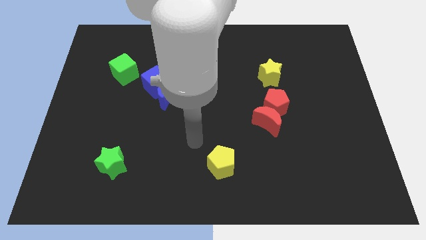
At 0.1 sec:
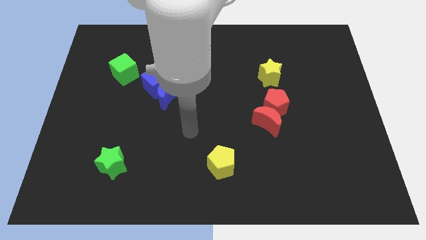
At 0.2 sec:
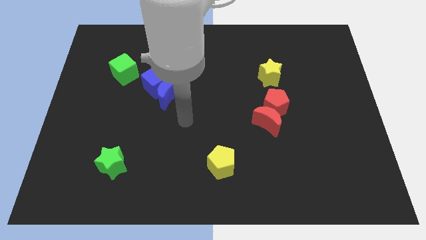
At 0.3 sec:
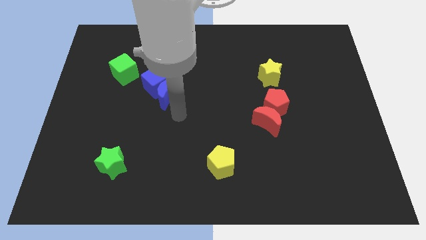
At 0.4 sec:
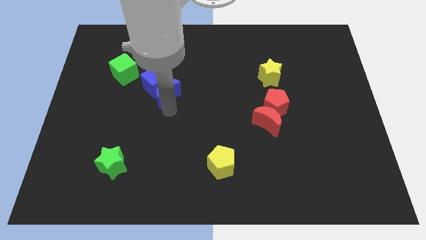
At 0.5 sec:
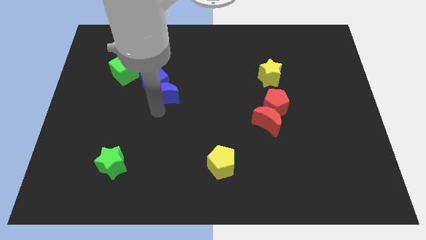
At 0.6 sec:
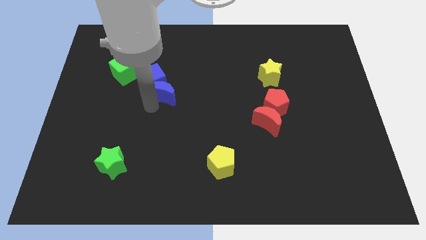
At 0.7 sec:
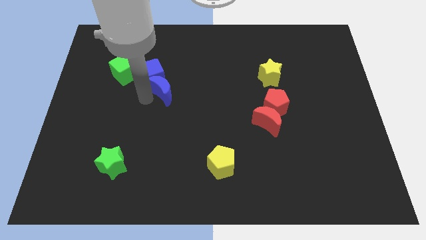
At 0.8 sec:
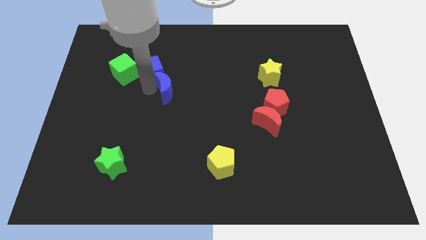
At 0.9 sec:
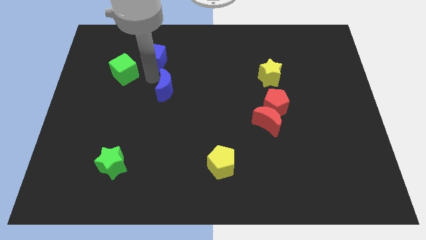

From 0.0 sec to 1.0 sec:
pull the blue moon apart from the blue cube

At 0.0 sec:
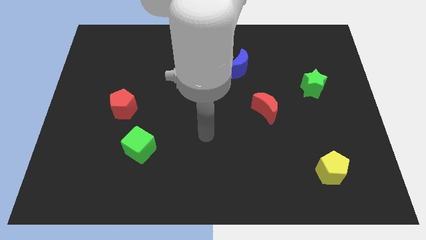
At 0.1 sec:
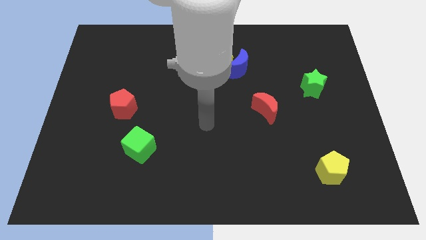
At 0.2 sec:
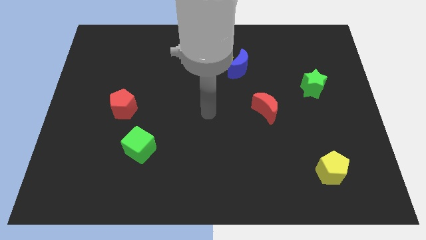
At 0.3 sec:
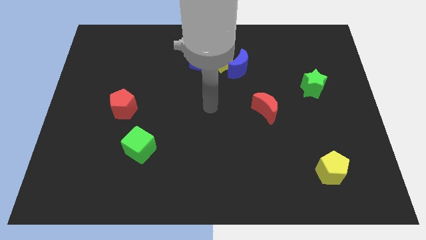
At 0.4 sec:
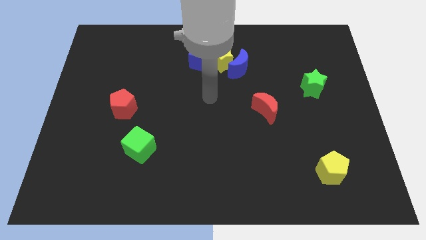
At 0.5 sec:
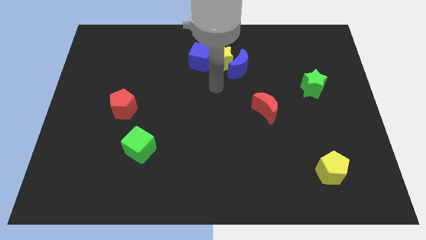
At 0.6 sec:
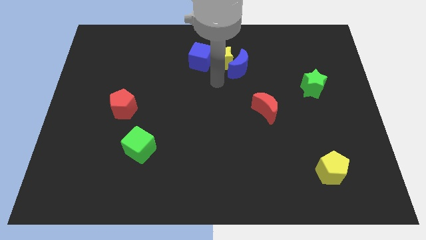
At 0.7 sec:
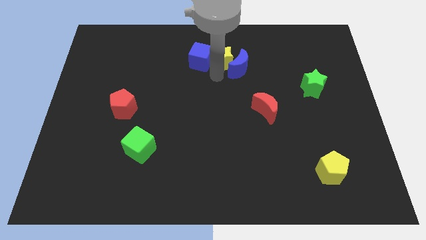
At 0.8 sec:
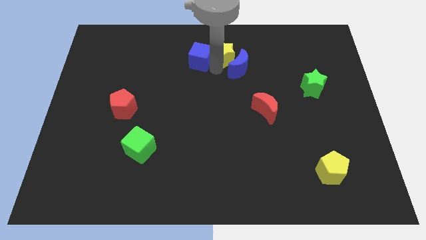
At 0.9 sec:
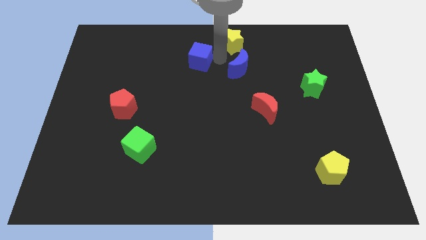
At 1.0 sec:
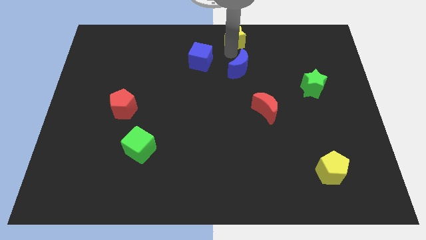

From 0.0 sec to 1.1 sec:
move the blue moon away from the yellow star

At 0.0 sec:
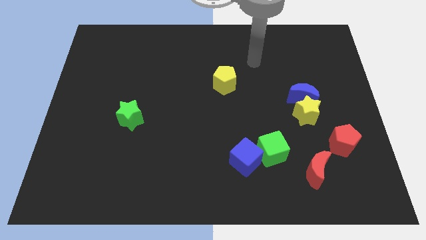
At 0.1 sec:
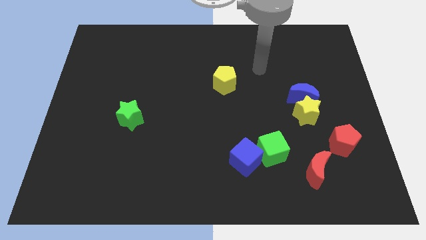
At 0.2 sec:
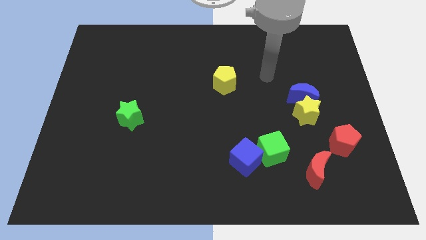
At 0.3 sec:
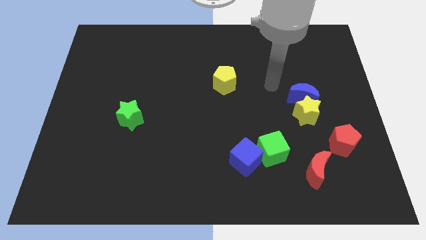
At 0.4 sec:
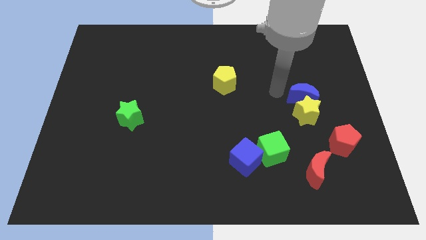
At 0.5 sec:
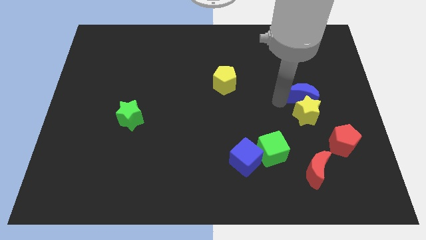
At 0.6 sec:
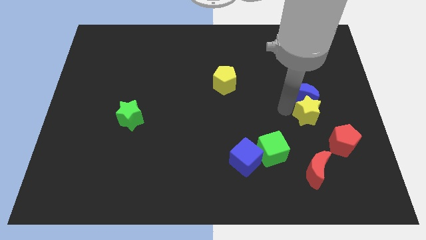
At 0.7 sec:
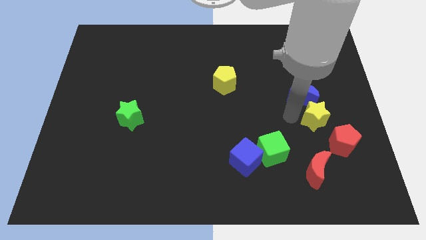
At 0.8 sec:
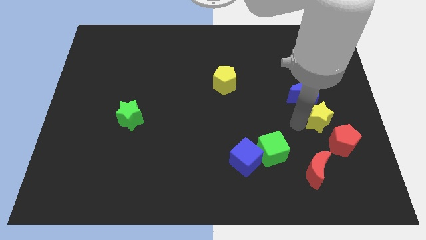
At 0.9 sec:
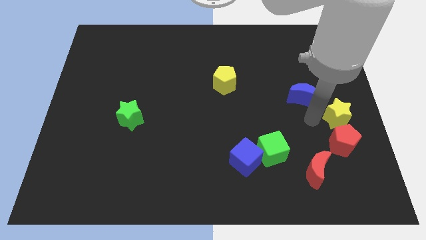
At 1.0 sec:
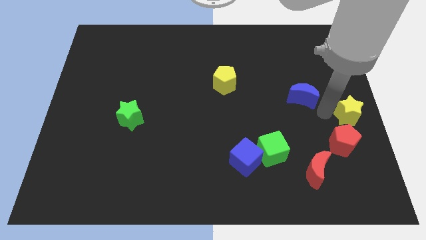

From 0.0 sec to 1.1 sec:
pull the blue moon apart from the yellow star

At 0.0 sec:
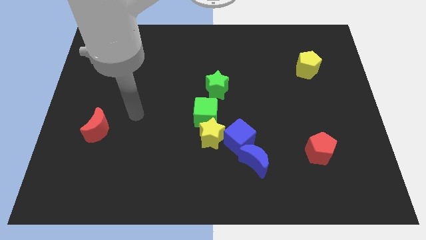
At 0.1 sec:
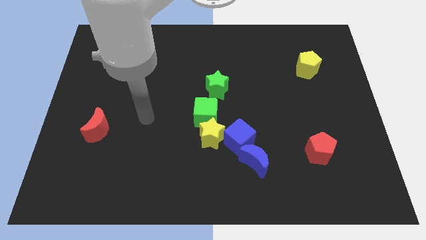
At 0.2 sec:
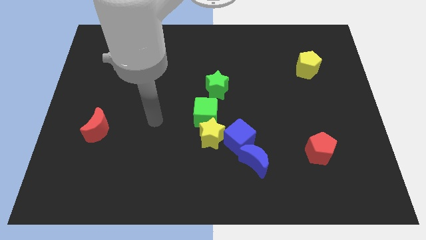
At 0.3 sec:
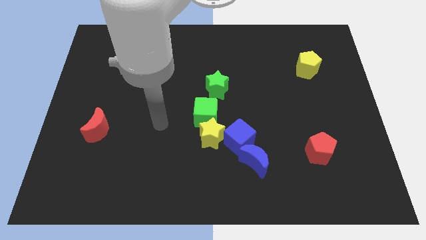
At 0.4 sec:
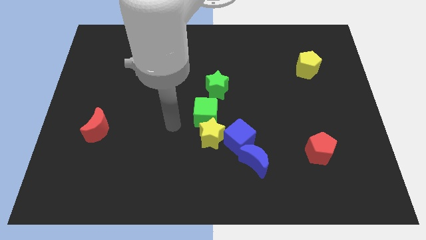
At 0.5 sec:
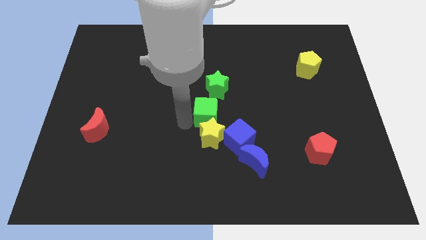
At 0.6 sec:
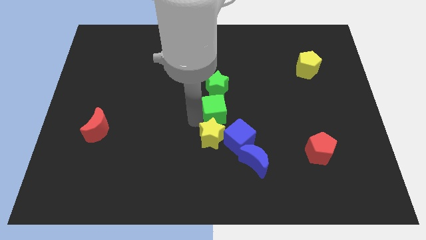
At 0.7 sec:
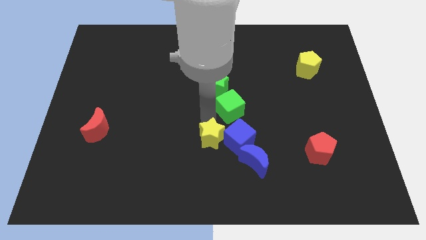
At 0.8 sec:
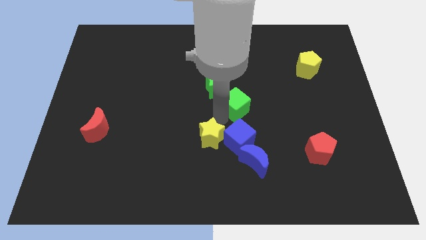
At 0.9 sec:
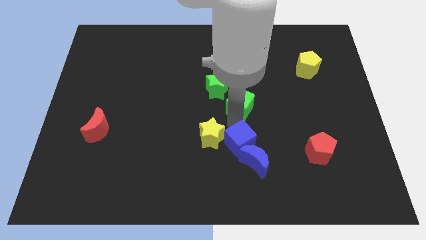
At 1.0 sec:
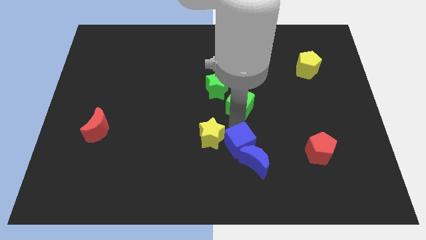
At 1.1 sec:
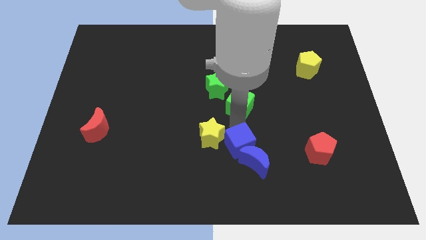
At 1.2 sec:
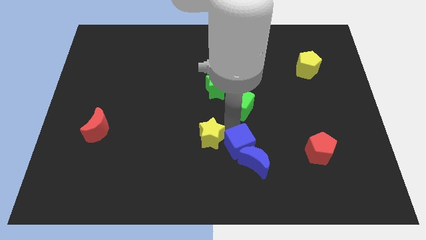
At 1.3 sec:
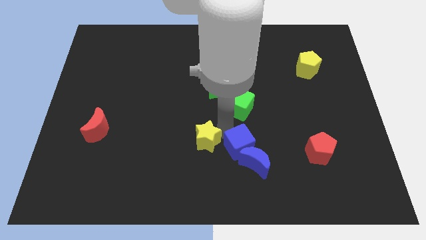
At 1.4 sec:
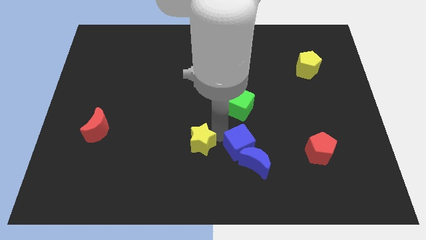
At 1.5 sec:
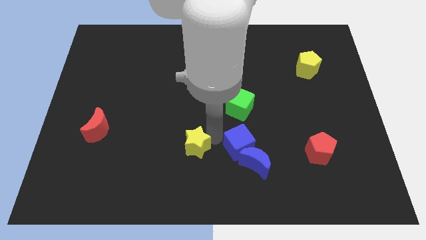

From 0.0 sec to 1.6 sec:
move the yellow star away from the blue cube and green cube

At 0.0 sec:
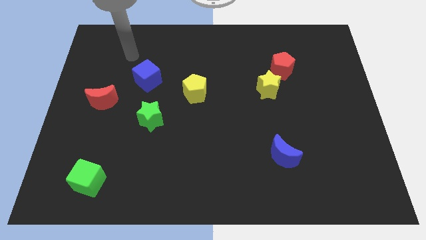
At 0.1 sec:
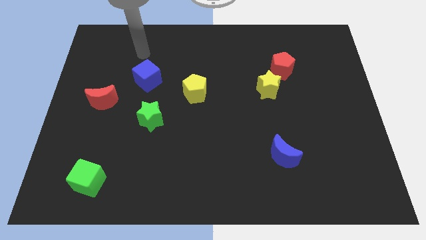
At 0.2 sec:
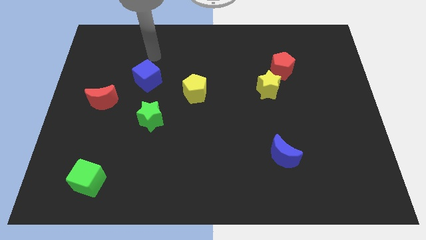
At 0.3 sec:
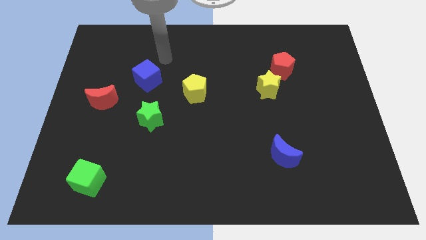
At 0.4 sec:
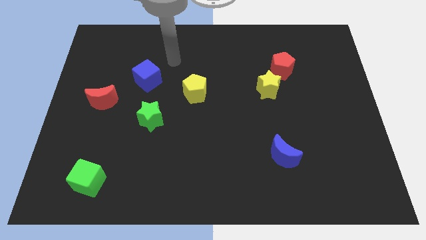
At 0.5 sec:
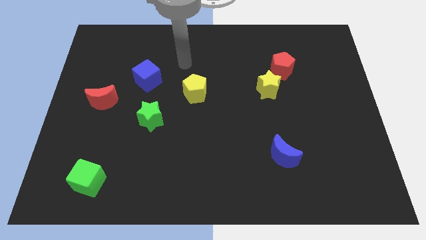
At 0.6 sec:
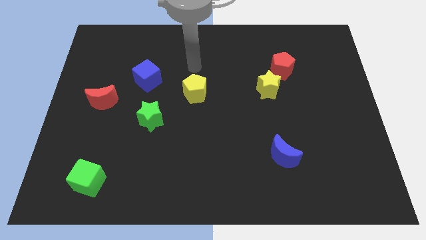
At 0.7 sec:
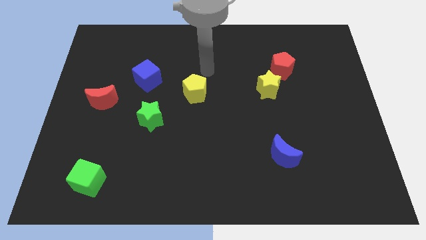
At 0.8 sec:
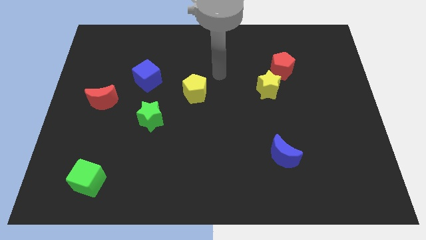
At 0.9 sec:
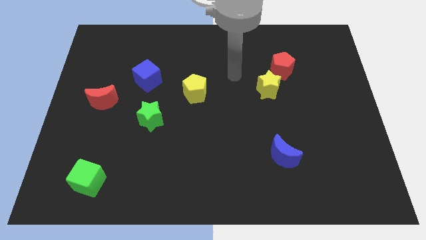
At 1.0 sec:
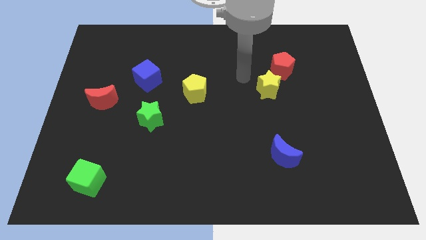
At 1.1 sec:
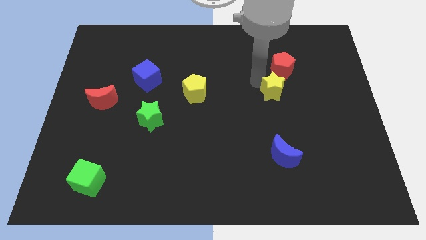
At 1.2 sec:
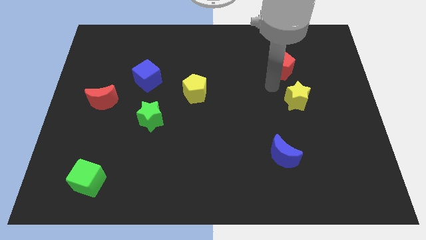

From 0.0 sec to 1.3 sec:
separate the red pentagon from the yellow star

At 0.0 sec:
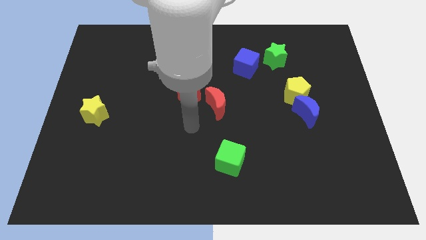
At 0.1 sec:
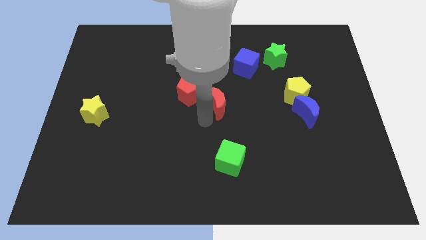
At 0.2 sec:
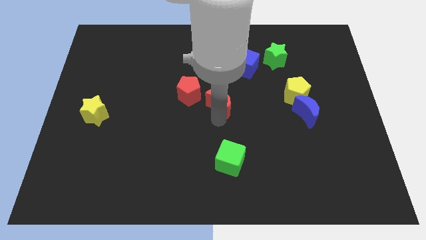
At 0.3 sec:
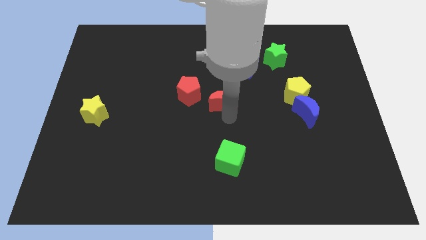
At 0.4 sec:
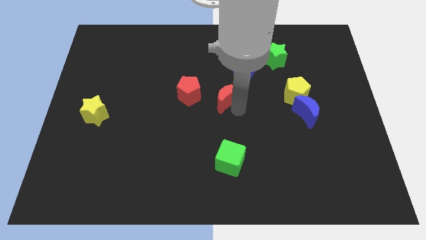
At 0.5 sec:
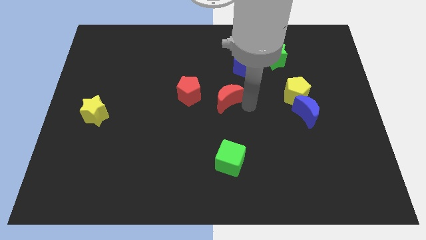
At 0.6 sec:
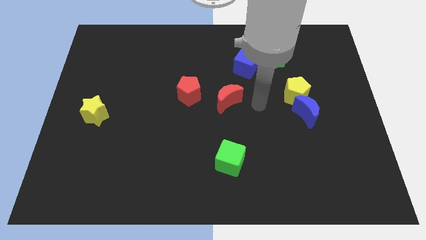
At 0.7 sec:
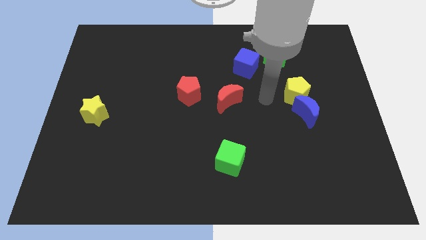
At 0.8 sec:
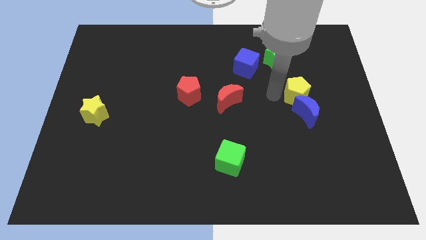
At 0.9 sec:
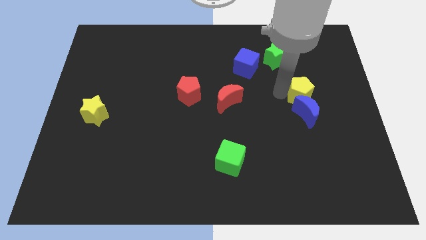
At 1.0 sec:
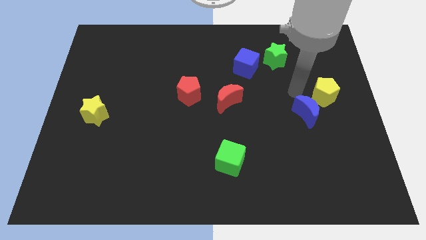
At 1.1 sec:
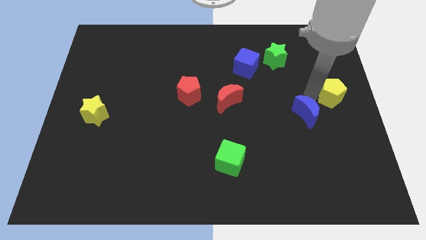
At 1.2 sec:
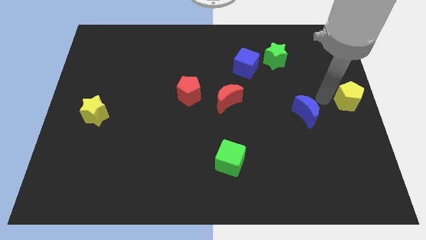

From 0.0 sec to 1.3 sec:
separate the blue moon from the yellow pentagon

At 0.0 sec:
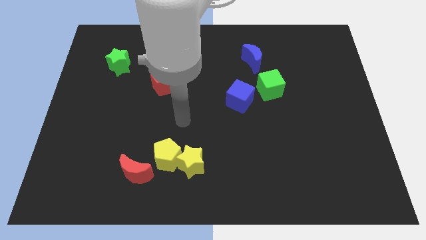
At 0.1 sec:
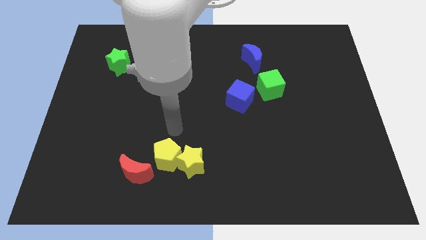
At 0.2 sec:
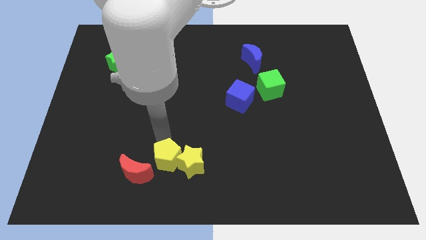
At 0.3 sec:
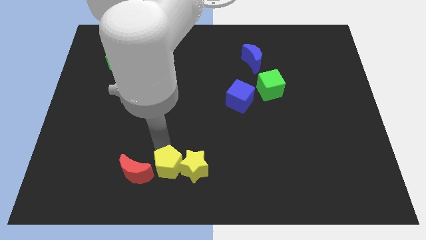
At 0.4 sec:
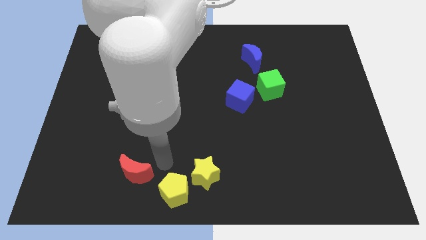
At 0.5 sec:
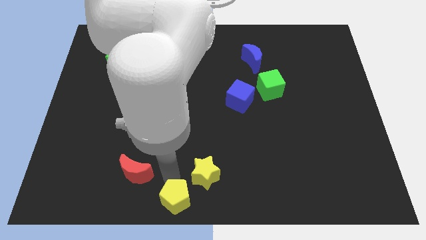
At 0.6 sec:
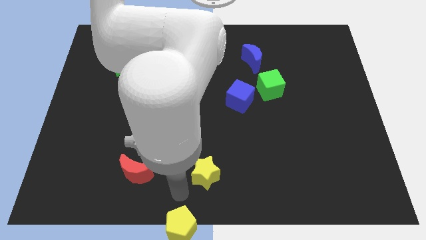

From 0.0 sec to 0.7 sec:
separate the yellow star from the yellow pentagon

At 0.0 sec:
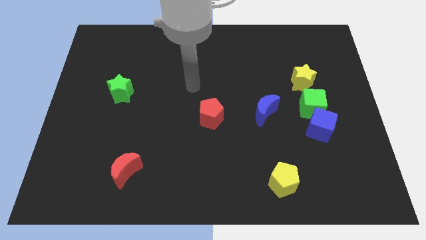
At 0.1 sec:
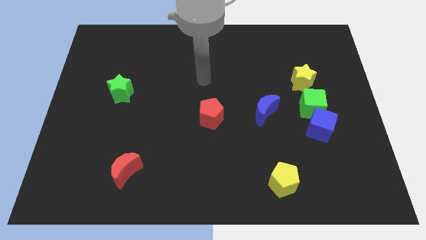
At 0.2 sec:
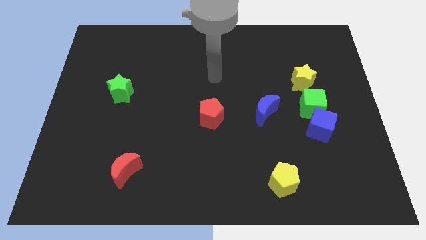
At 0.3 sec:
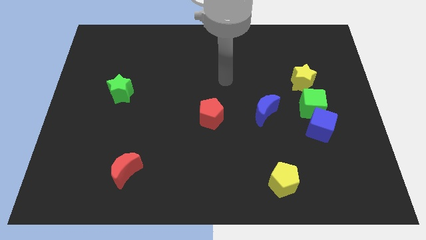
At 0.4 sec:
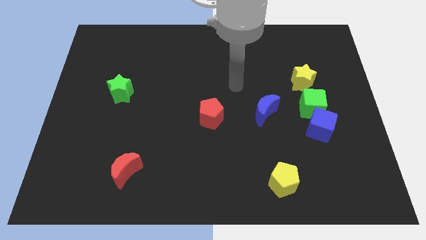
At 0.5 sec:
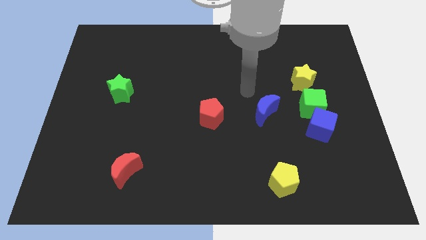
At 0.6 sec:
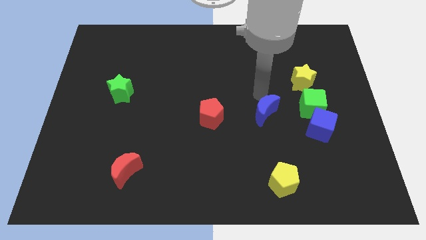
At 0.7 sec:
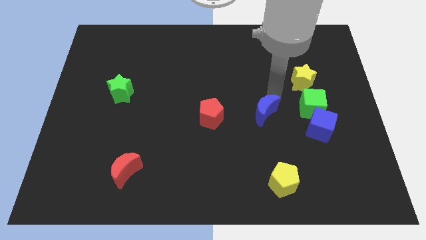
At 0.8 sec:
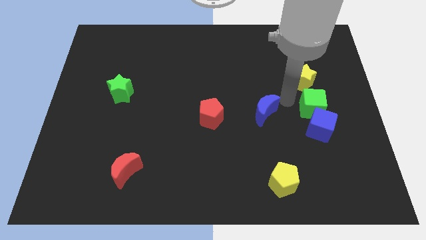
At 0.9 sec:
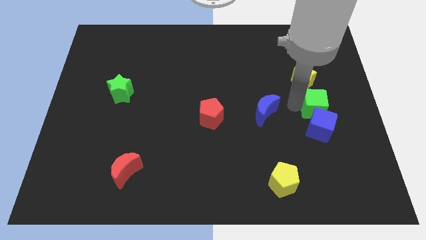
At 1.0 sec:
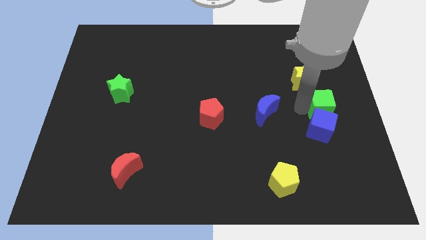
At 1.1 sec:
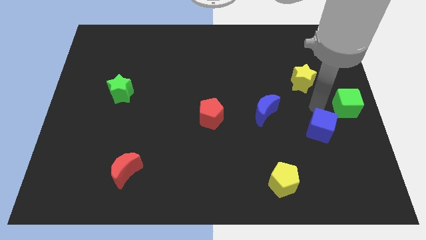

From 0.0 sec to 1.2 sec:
move the blue cube away from the green cube

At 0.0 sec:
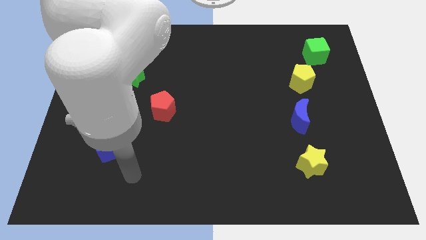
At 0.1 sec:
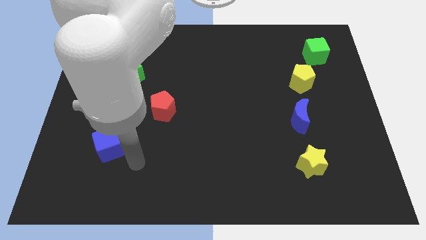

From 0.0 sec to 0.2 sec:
pull the red moon apart from the green star
